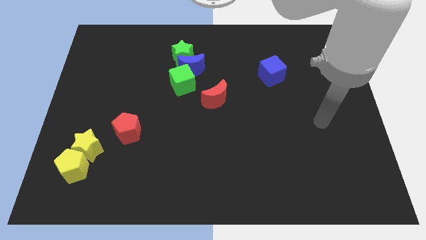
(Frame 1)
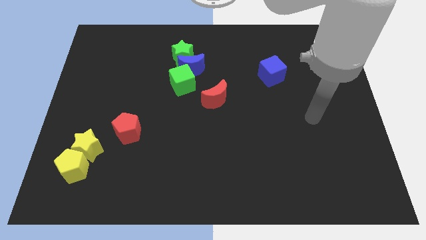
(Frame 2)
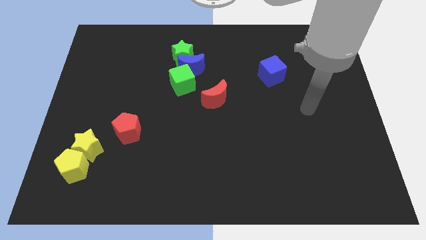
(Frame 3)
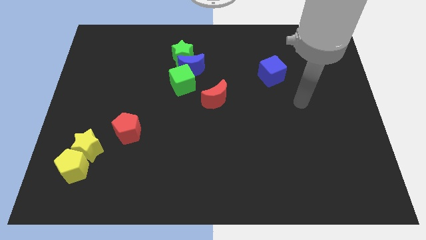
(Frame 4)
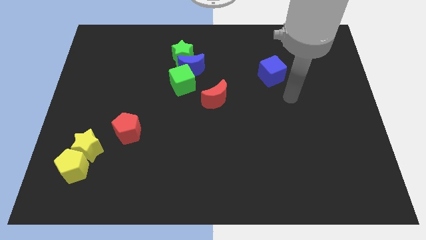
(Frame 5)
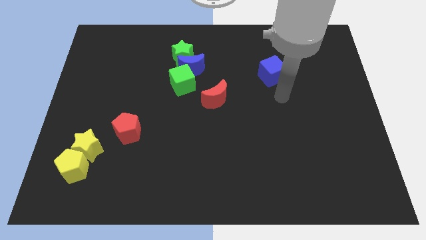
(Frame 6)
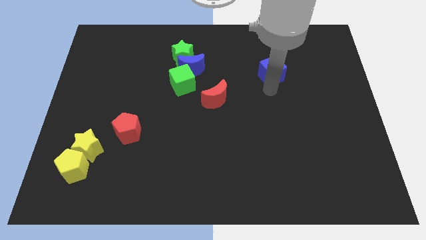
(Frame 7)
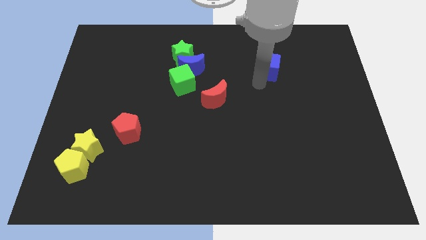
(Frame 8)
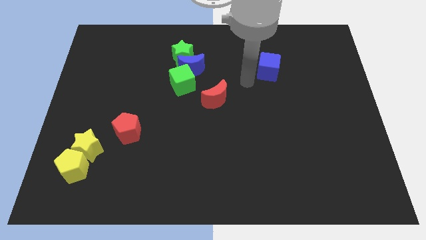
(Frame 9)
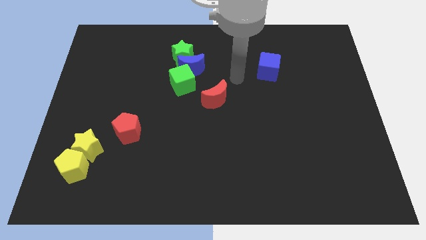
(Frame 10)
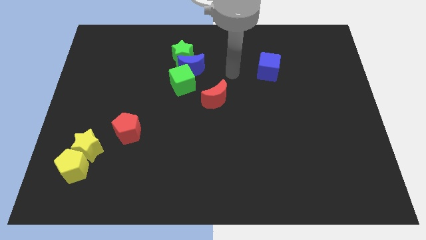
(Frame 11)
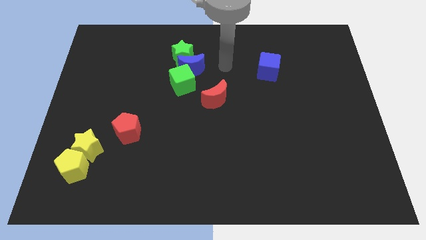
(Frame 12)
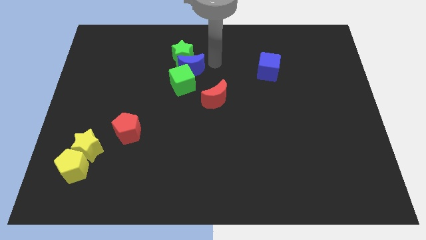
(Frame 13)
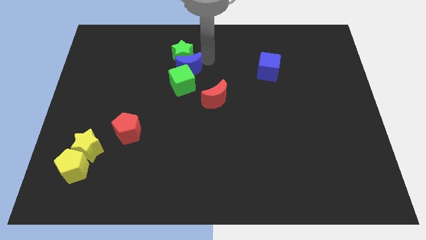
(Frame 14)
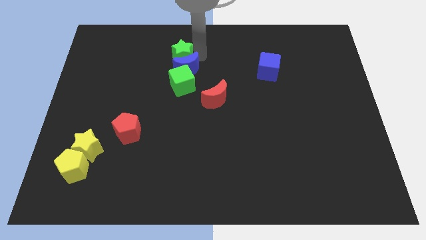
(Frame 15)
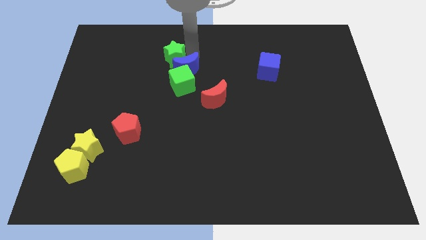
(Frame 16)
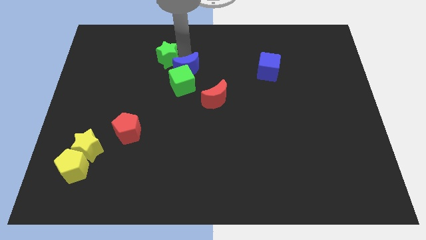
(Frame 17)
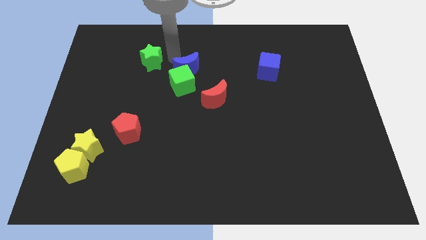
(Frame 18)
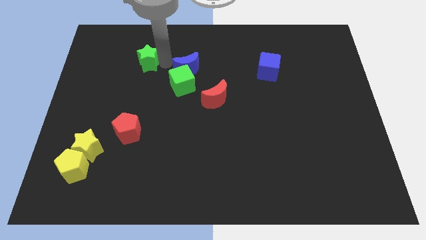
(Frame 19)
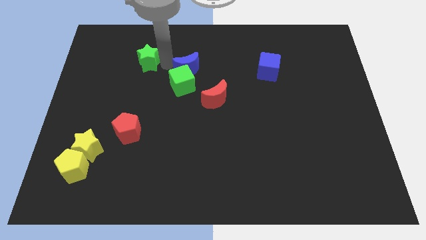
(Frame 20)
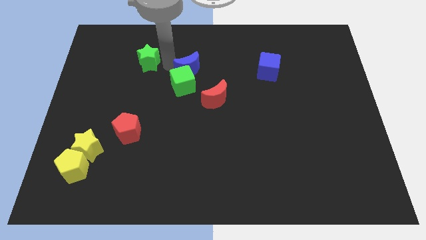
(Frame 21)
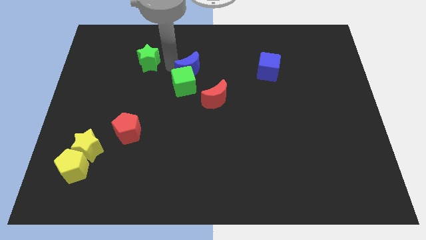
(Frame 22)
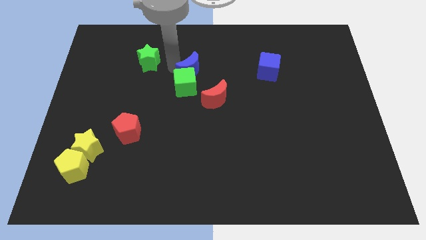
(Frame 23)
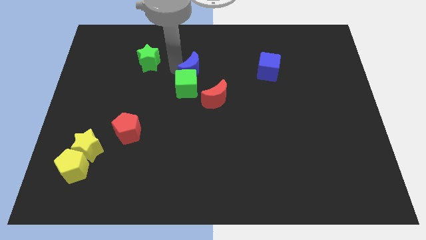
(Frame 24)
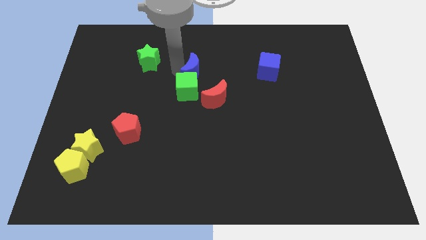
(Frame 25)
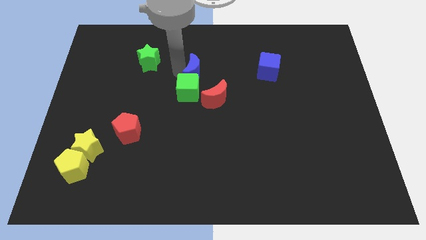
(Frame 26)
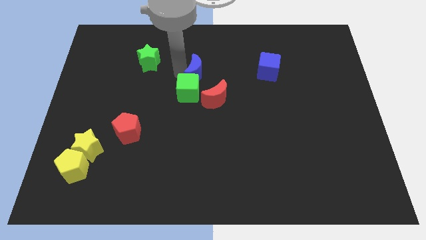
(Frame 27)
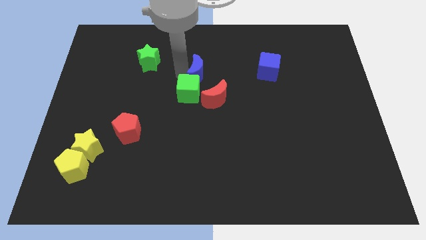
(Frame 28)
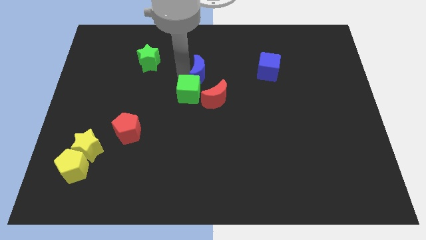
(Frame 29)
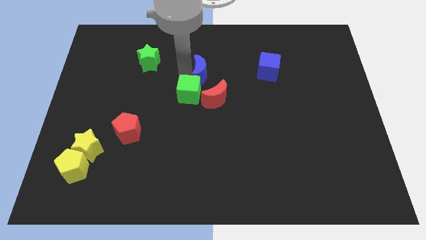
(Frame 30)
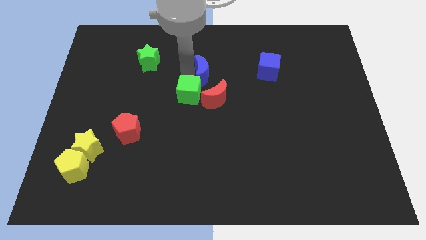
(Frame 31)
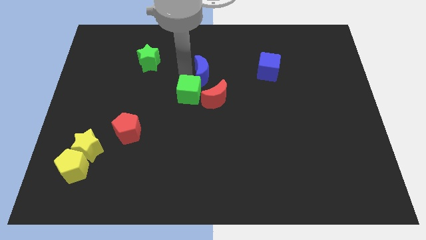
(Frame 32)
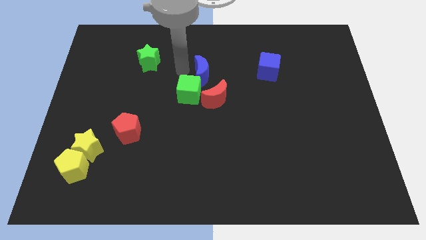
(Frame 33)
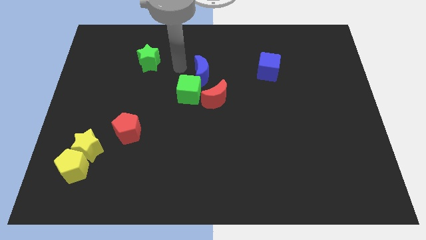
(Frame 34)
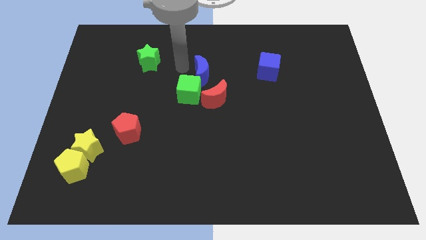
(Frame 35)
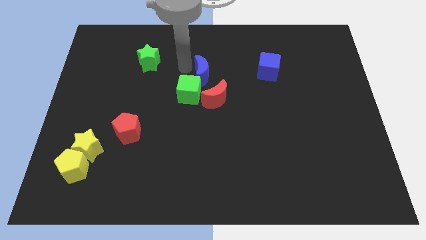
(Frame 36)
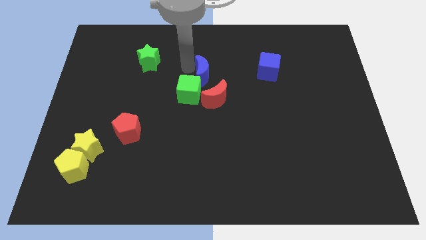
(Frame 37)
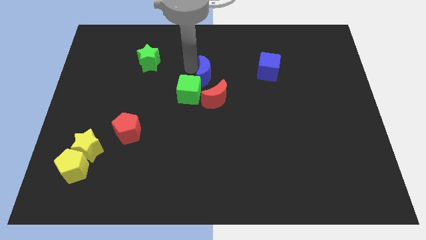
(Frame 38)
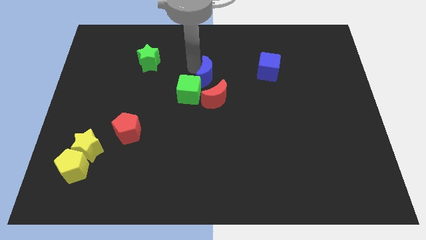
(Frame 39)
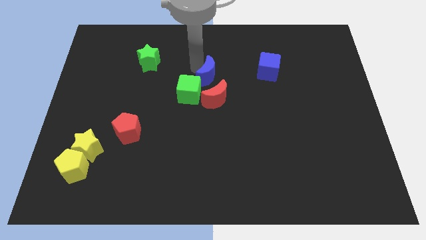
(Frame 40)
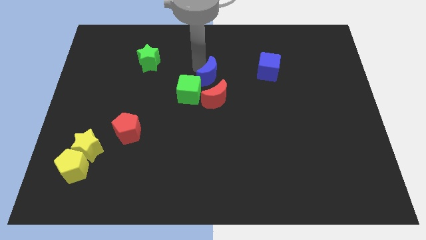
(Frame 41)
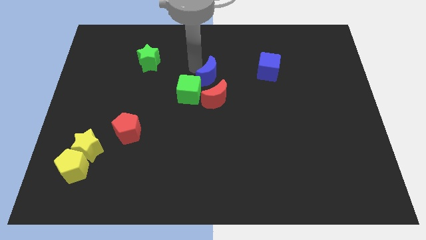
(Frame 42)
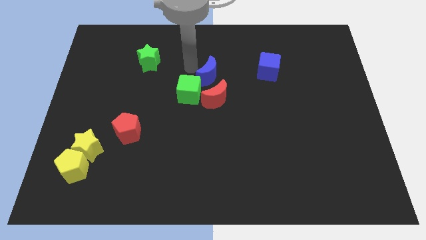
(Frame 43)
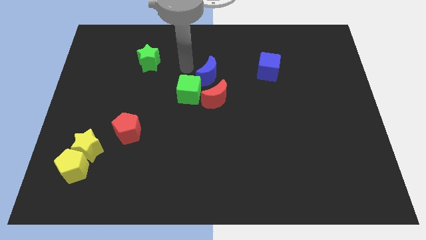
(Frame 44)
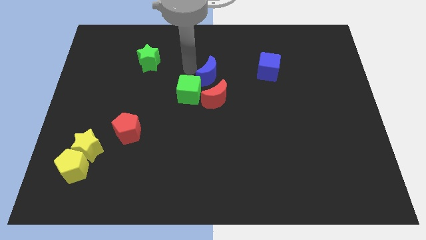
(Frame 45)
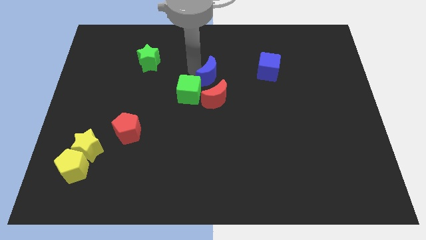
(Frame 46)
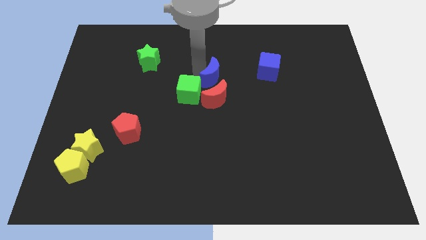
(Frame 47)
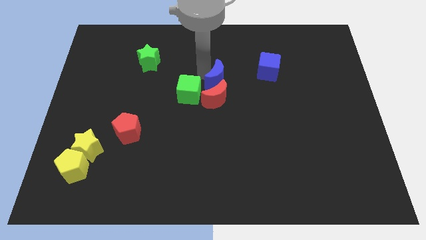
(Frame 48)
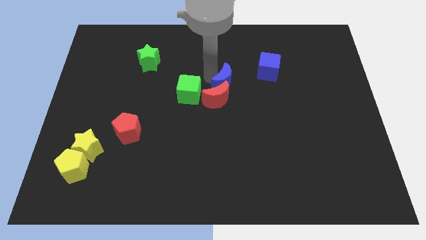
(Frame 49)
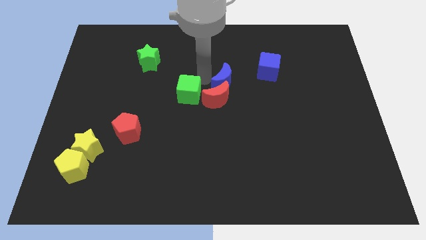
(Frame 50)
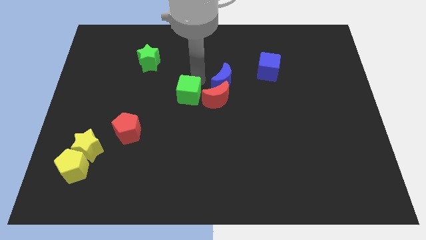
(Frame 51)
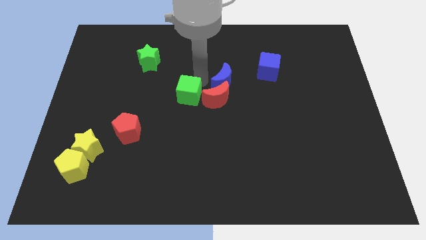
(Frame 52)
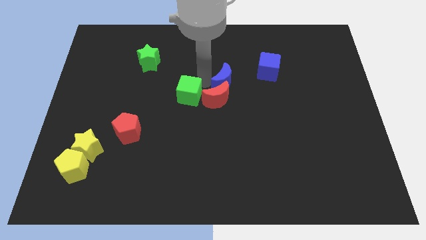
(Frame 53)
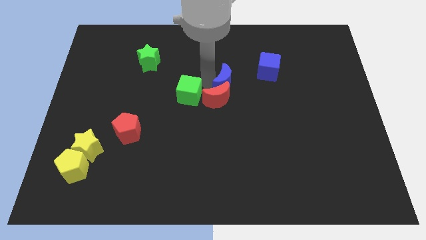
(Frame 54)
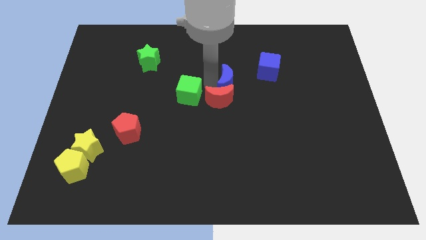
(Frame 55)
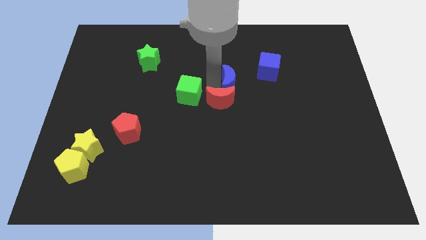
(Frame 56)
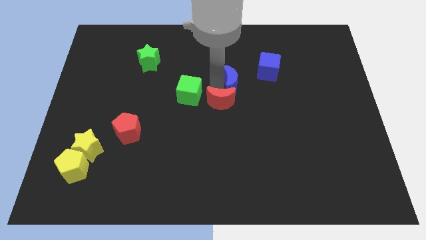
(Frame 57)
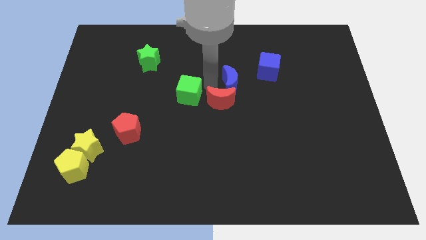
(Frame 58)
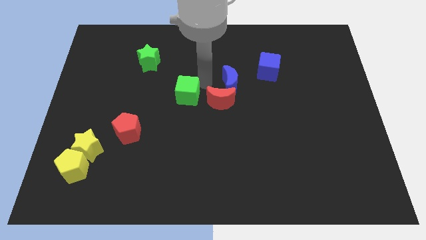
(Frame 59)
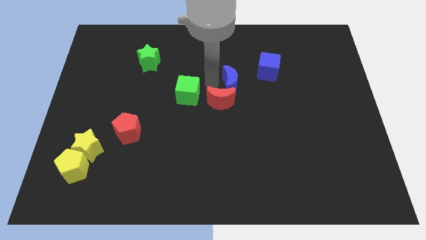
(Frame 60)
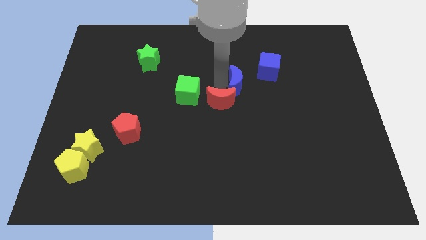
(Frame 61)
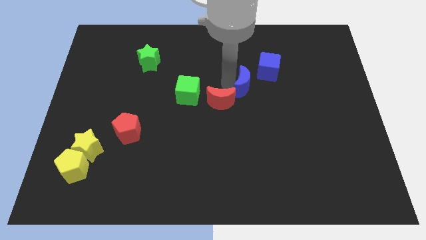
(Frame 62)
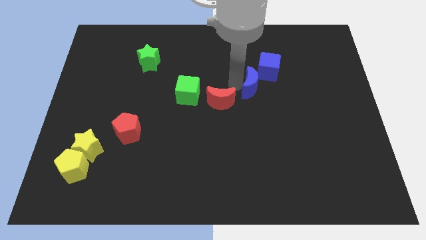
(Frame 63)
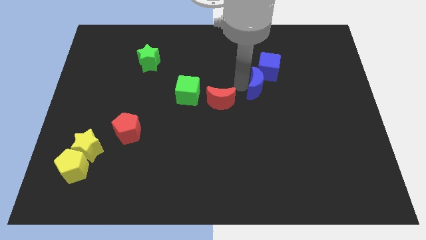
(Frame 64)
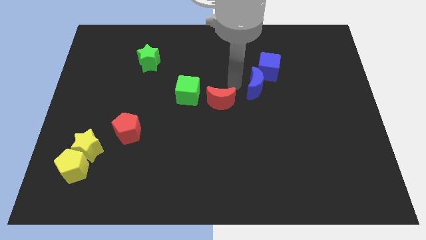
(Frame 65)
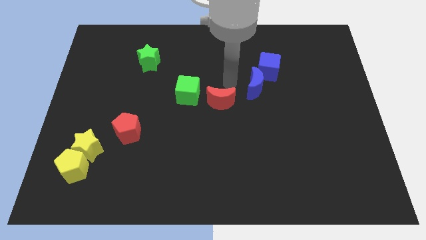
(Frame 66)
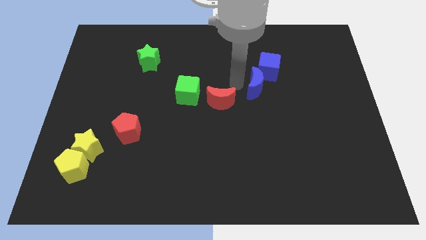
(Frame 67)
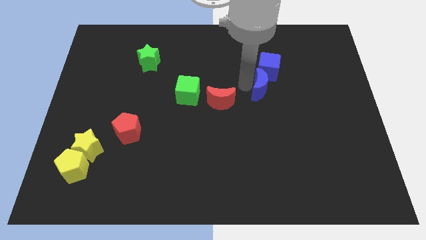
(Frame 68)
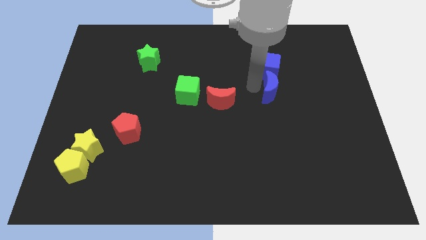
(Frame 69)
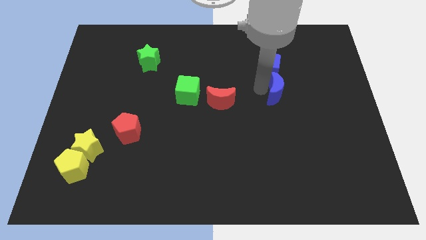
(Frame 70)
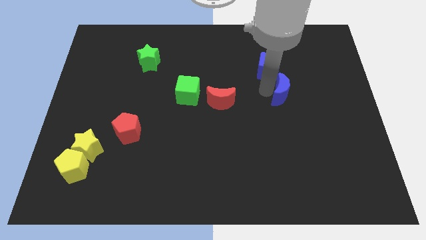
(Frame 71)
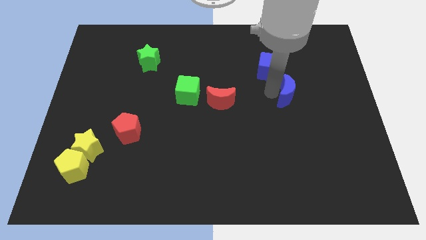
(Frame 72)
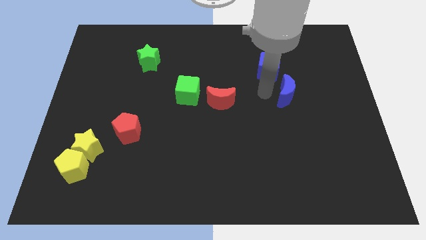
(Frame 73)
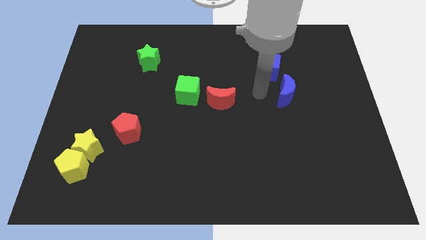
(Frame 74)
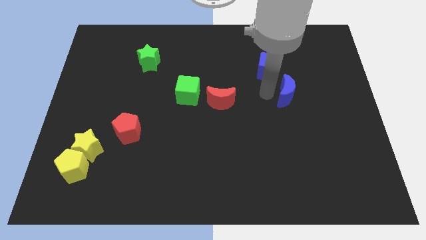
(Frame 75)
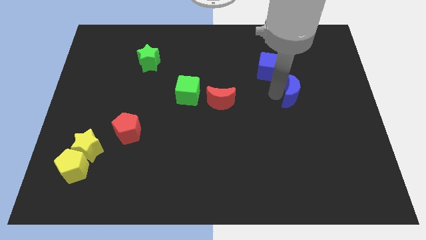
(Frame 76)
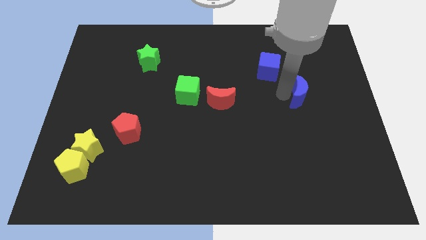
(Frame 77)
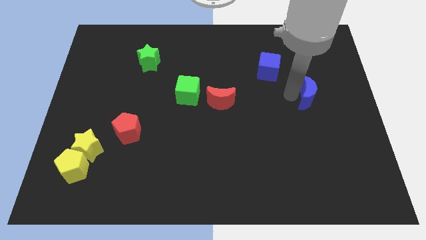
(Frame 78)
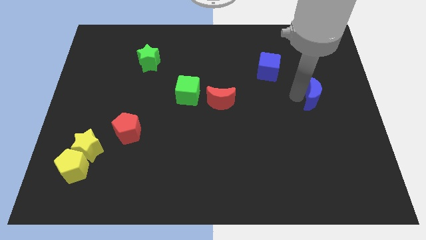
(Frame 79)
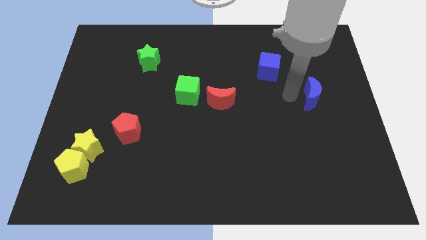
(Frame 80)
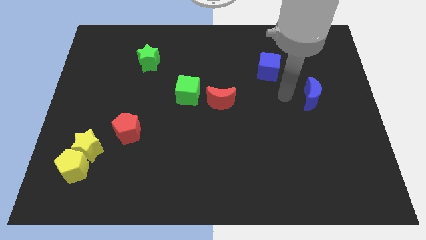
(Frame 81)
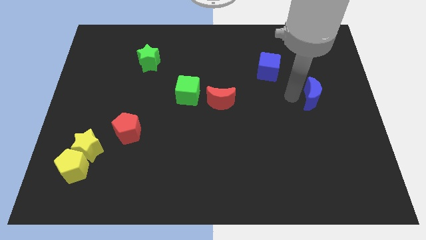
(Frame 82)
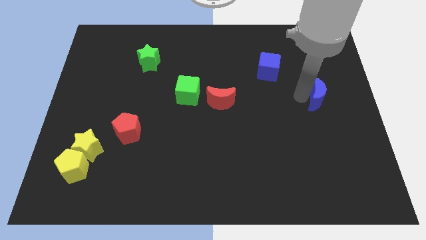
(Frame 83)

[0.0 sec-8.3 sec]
push the blue moon to the right side of the board
